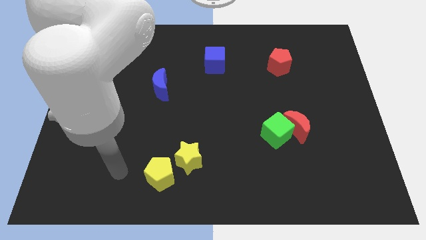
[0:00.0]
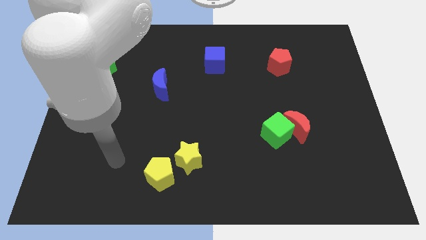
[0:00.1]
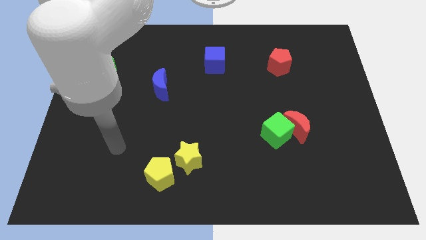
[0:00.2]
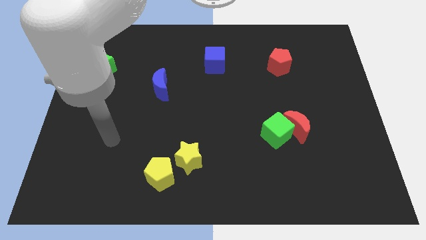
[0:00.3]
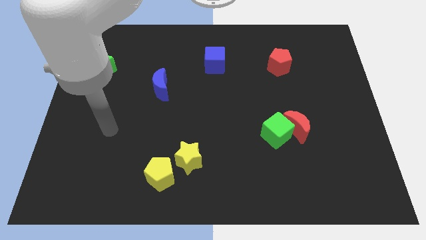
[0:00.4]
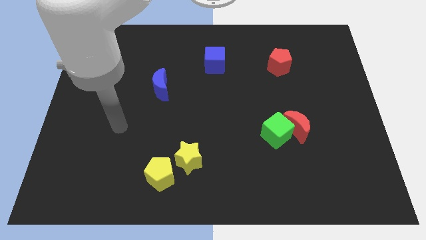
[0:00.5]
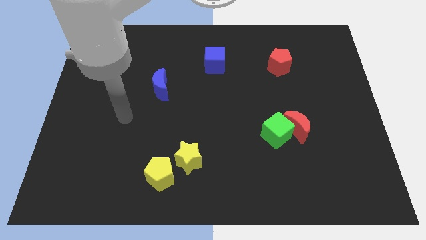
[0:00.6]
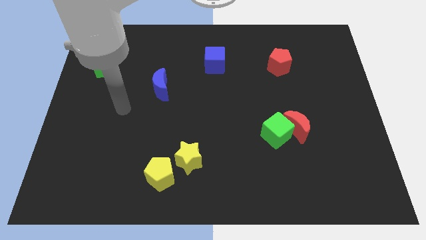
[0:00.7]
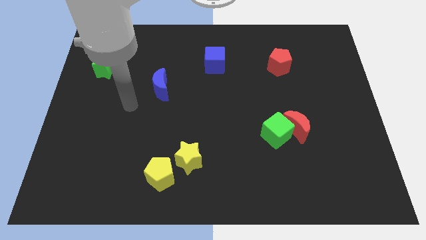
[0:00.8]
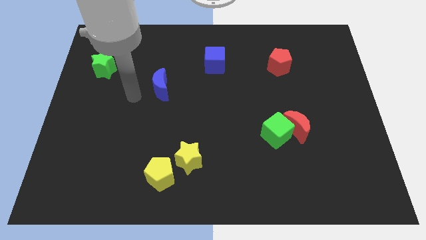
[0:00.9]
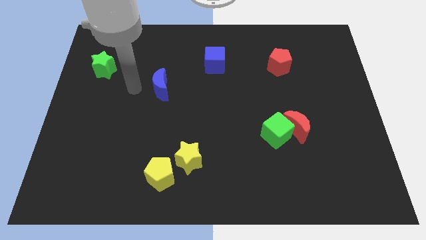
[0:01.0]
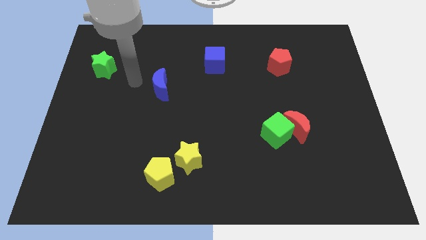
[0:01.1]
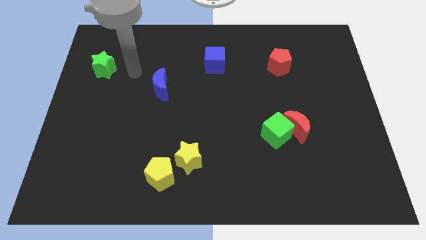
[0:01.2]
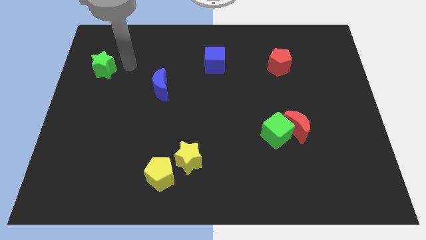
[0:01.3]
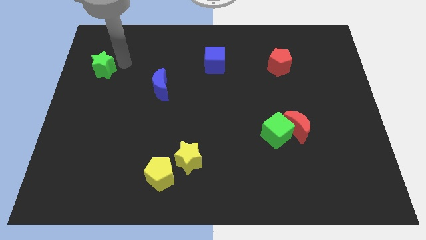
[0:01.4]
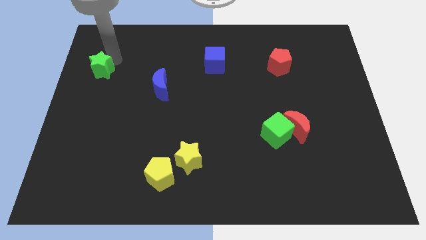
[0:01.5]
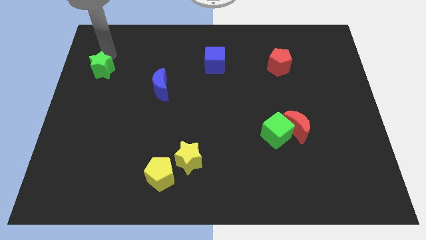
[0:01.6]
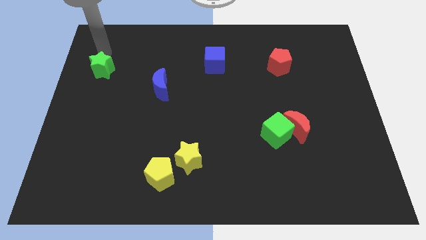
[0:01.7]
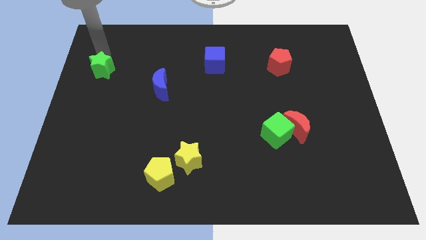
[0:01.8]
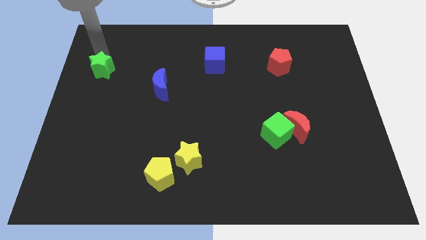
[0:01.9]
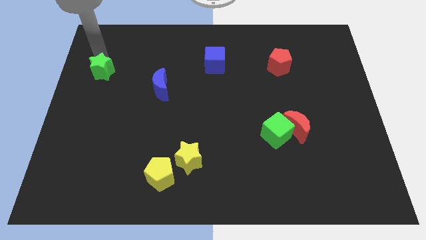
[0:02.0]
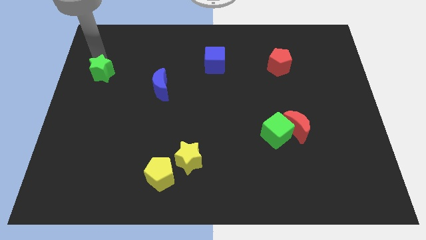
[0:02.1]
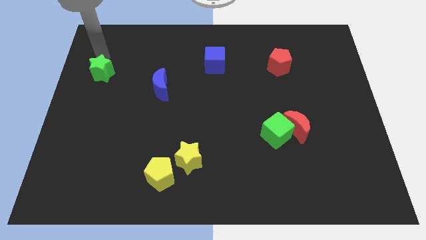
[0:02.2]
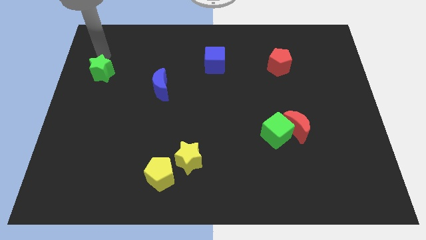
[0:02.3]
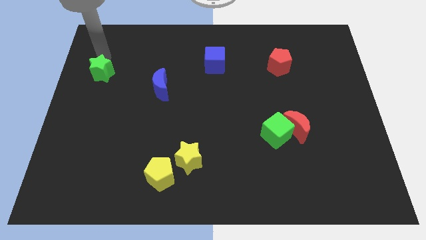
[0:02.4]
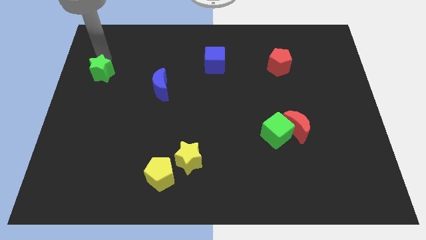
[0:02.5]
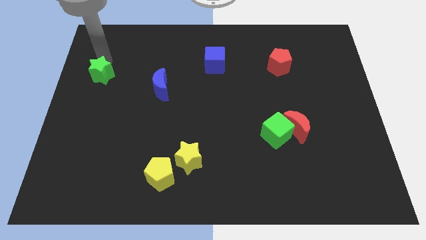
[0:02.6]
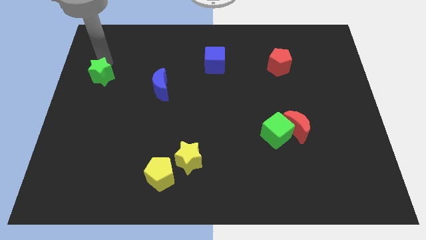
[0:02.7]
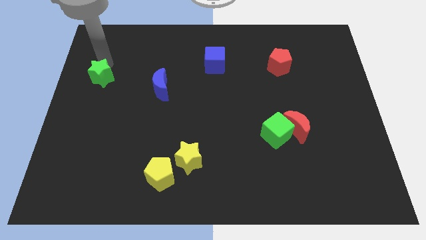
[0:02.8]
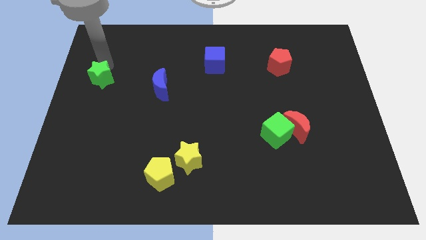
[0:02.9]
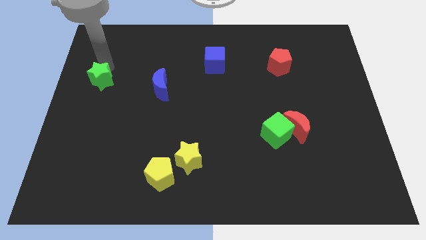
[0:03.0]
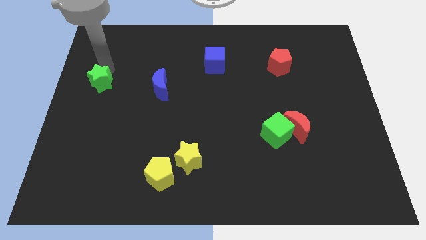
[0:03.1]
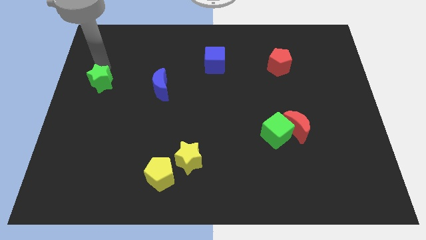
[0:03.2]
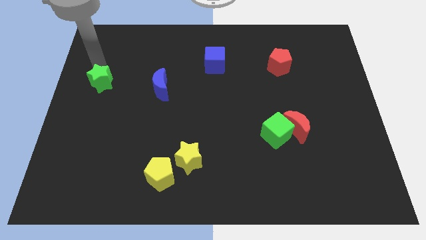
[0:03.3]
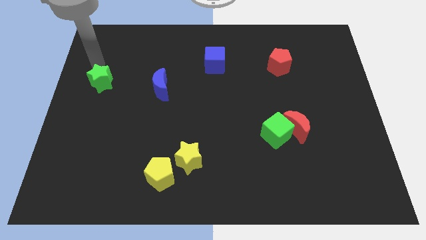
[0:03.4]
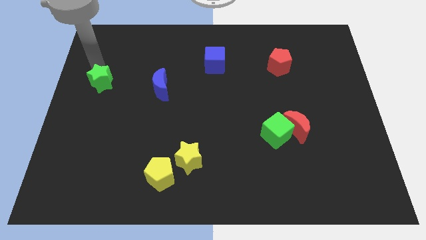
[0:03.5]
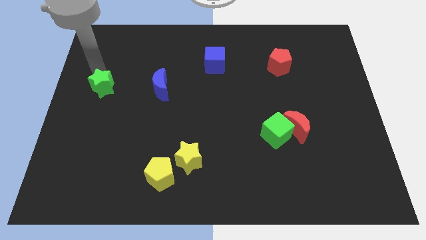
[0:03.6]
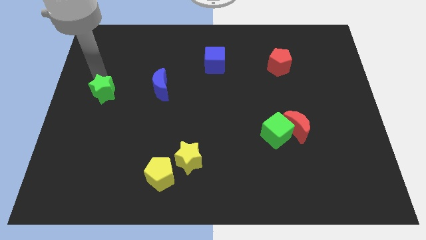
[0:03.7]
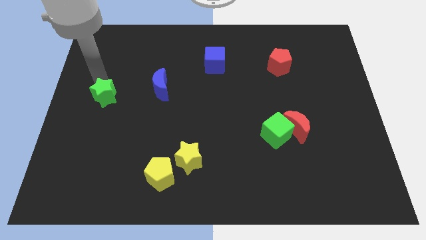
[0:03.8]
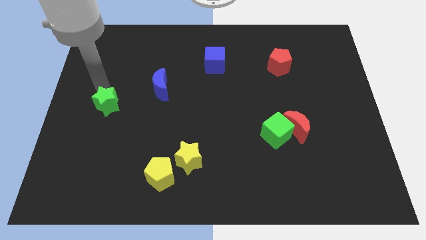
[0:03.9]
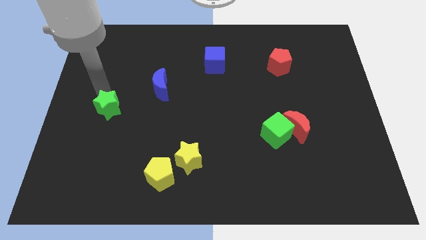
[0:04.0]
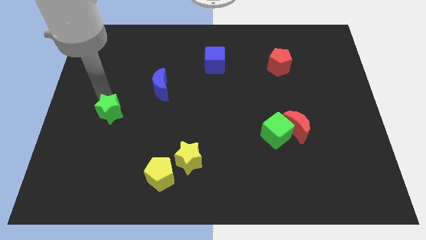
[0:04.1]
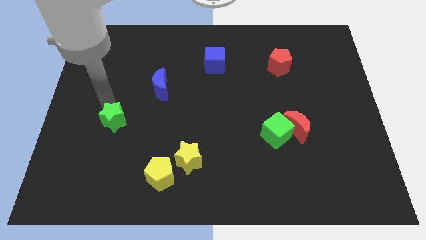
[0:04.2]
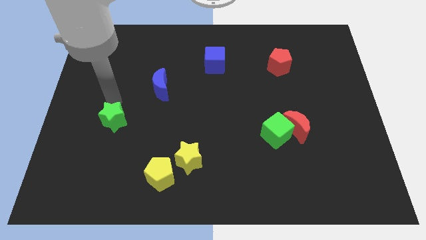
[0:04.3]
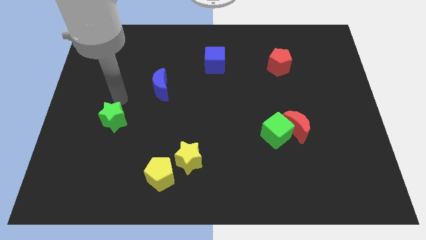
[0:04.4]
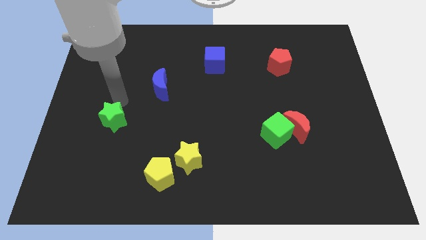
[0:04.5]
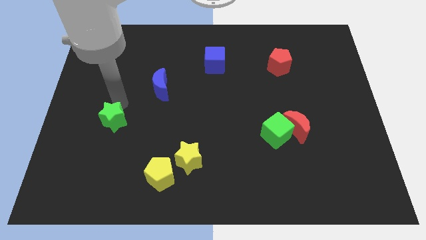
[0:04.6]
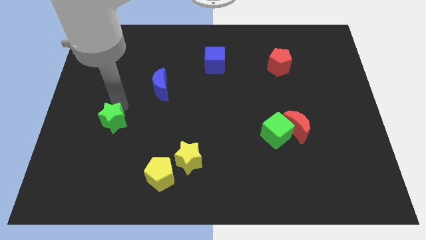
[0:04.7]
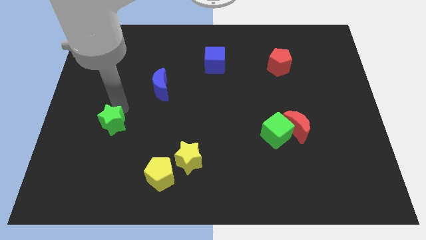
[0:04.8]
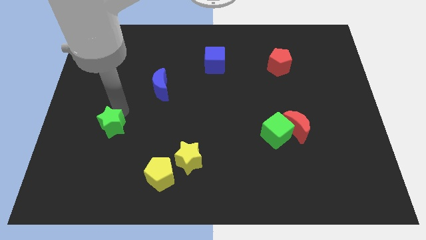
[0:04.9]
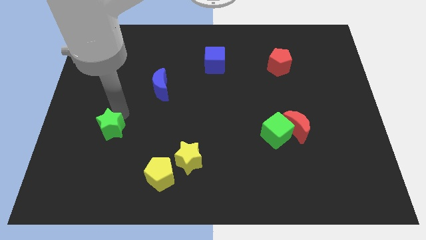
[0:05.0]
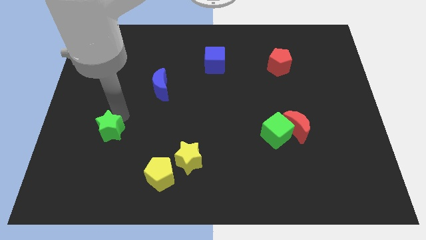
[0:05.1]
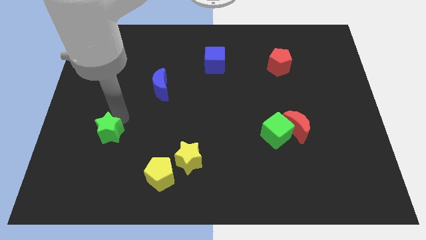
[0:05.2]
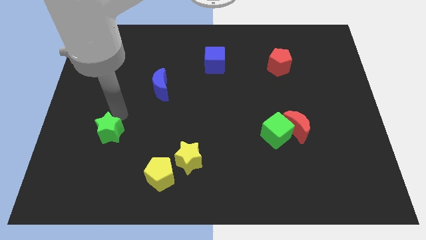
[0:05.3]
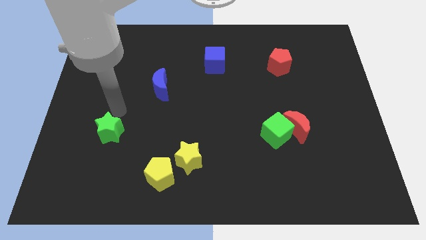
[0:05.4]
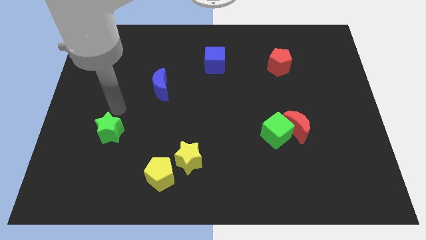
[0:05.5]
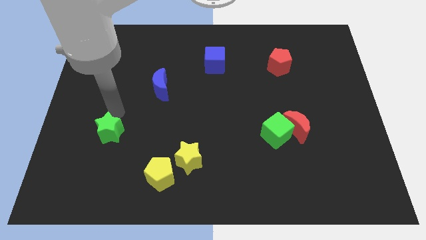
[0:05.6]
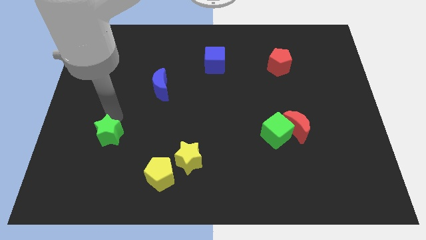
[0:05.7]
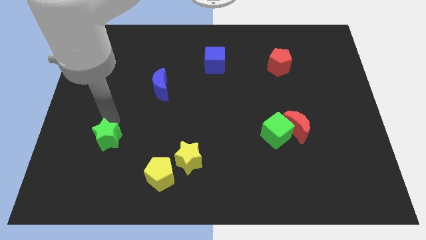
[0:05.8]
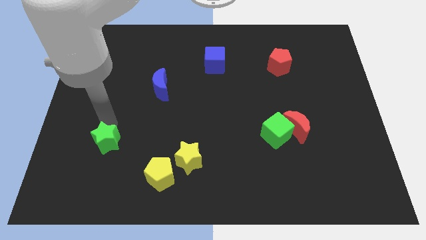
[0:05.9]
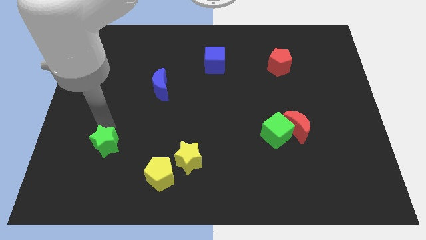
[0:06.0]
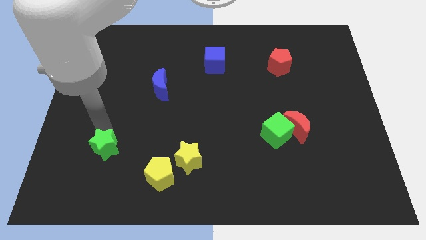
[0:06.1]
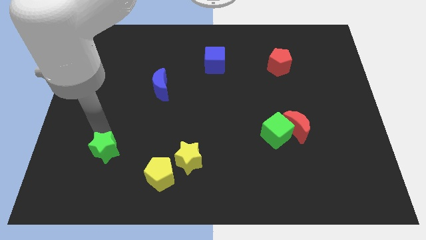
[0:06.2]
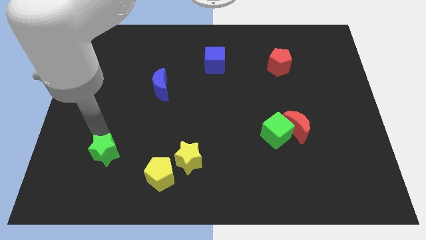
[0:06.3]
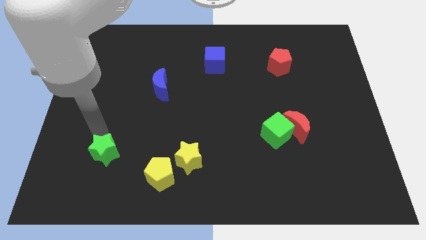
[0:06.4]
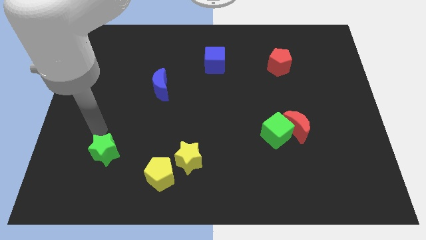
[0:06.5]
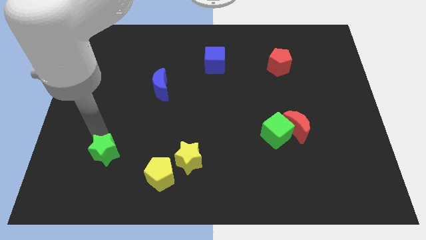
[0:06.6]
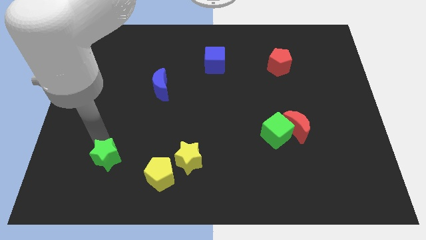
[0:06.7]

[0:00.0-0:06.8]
move the green star to the left side of the yellow pentagon
